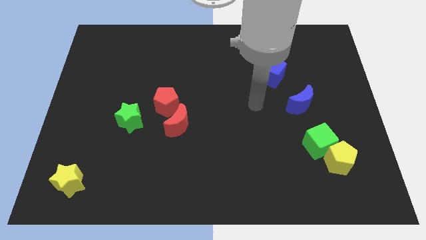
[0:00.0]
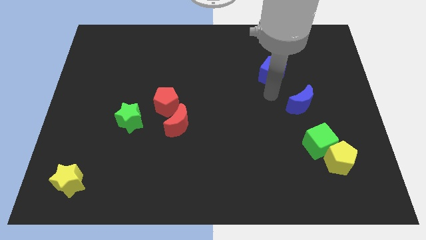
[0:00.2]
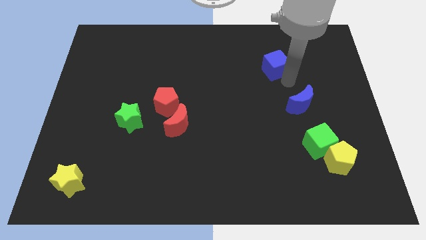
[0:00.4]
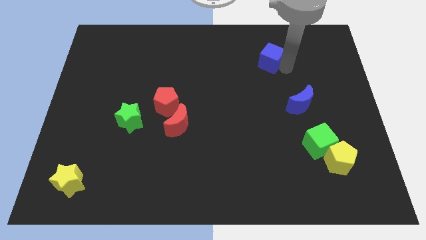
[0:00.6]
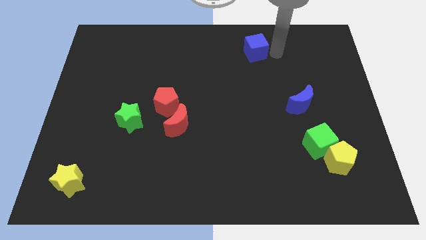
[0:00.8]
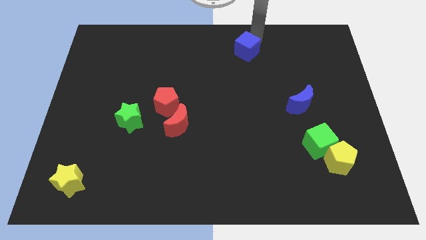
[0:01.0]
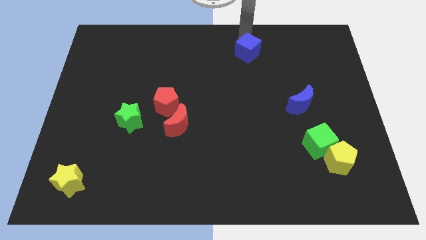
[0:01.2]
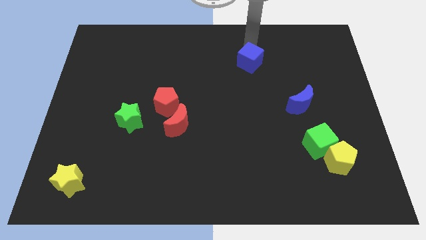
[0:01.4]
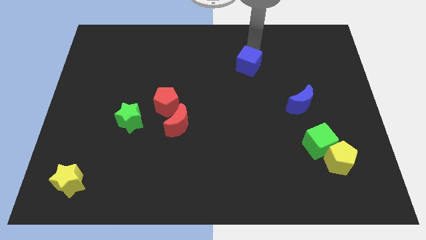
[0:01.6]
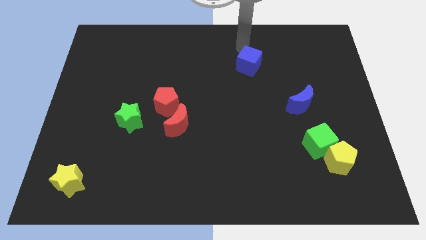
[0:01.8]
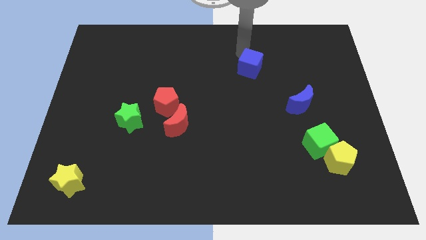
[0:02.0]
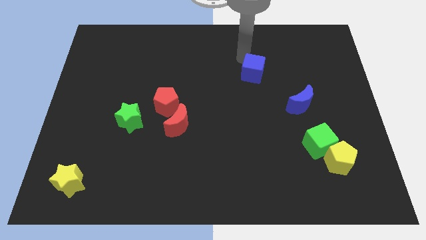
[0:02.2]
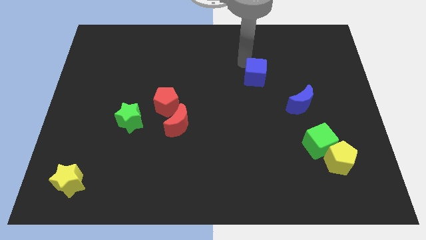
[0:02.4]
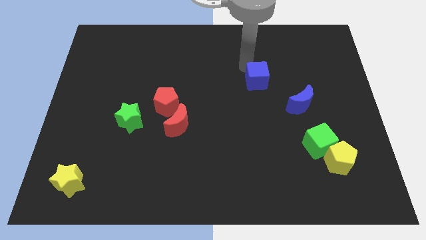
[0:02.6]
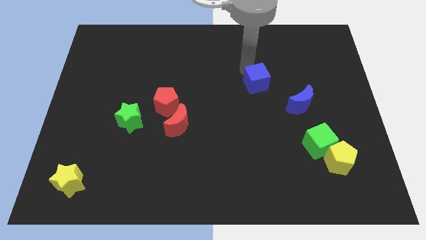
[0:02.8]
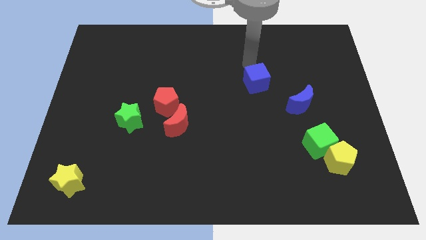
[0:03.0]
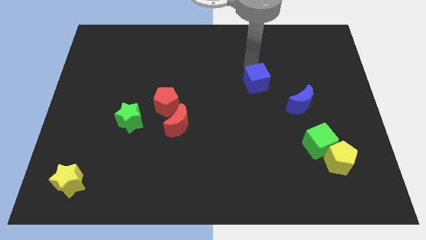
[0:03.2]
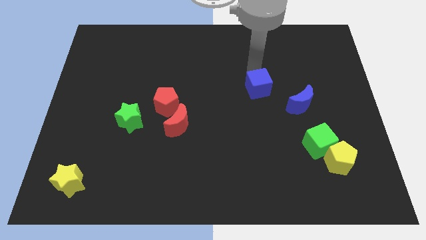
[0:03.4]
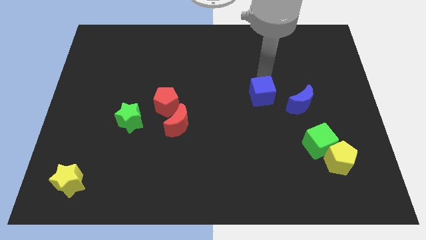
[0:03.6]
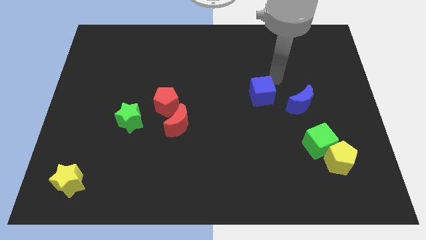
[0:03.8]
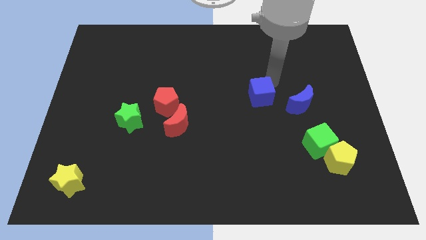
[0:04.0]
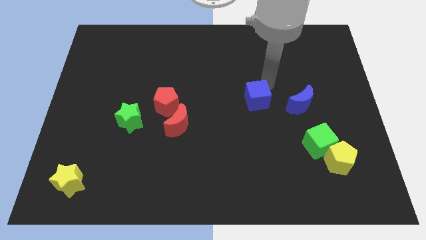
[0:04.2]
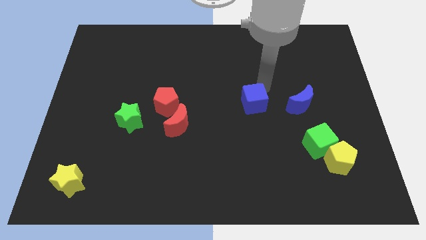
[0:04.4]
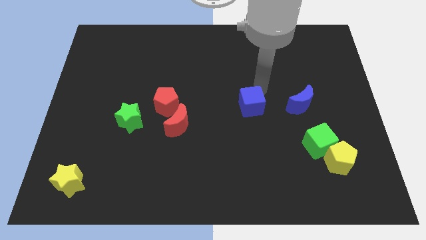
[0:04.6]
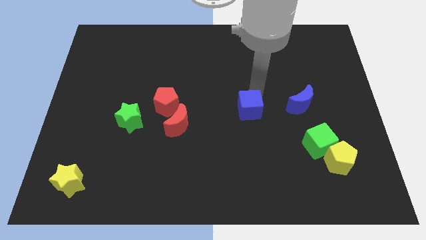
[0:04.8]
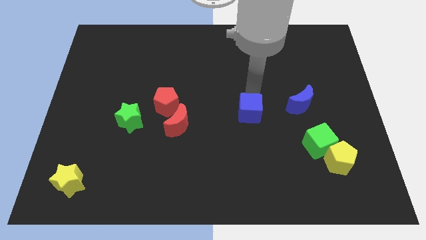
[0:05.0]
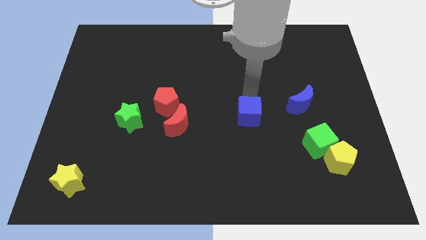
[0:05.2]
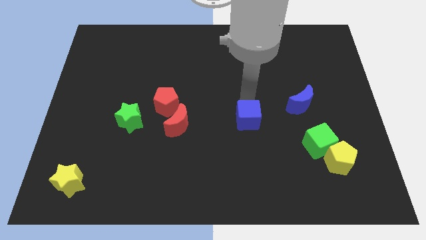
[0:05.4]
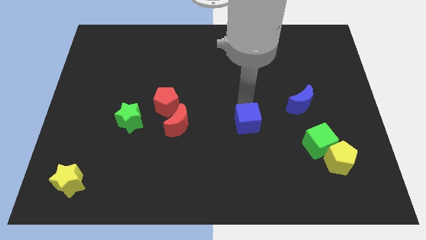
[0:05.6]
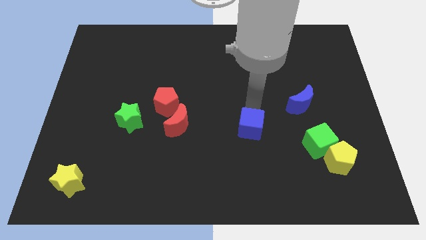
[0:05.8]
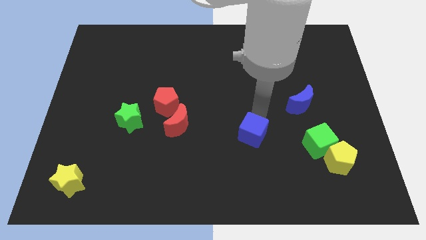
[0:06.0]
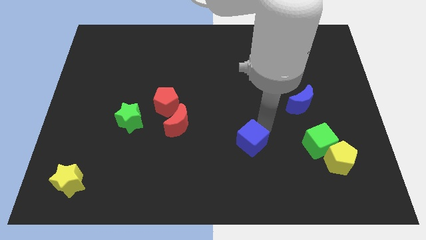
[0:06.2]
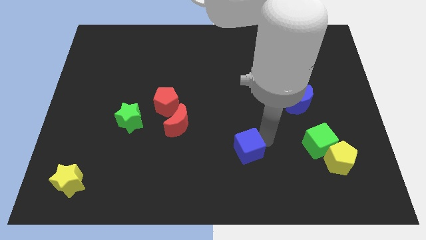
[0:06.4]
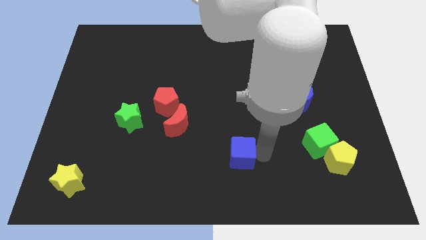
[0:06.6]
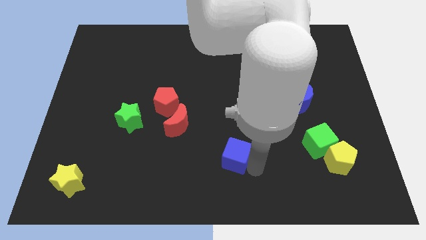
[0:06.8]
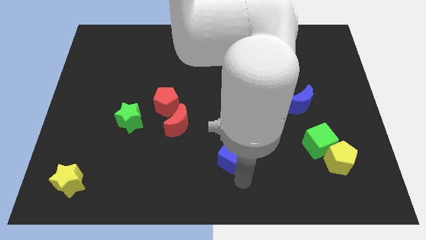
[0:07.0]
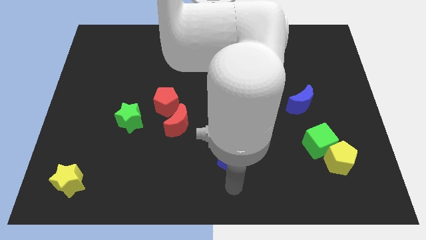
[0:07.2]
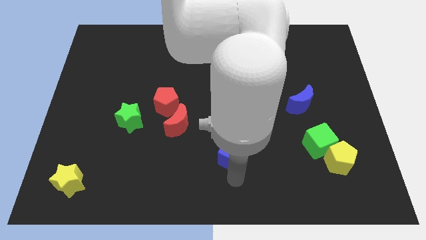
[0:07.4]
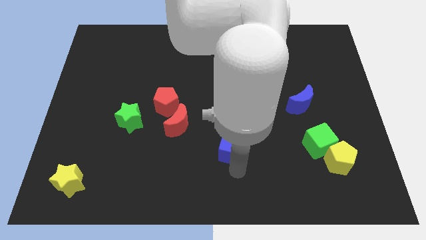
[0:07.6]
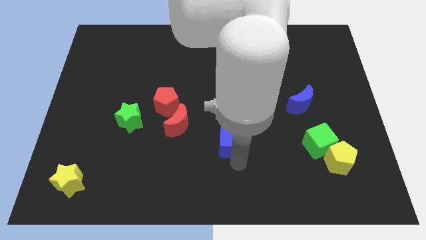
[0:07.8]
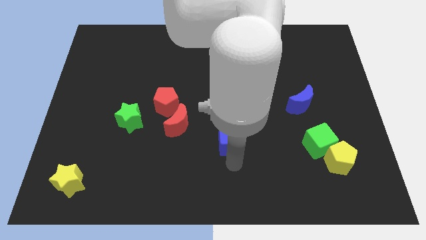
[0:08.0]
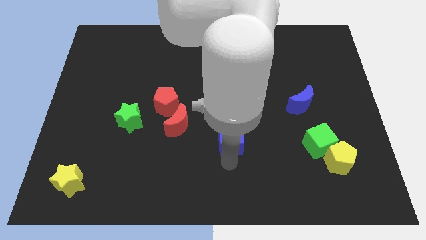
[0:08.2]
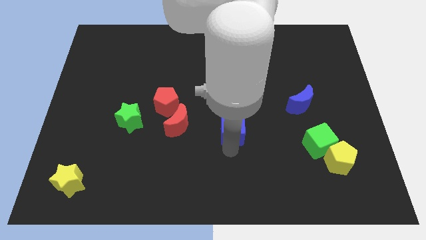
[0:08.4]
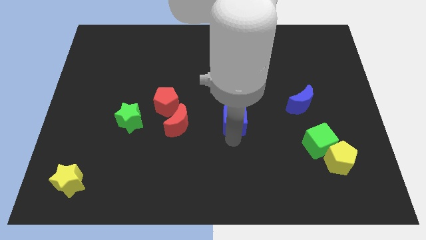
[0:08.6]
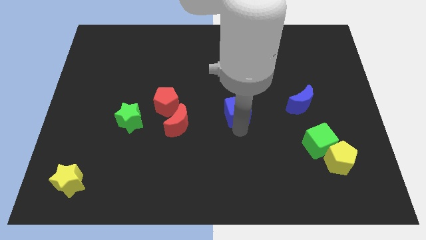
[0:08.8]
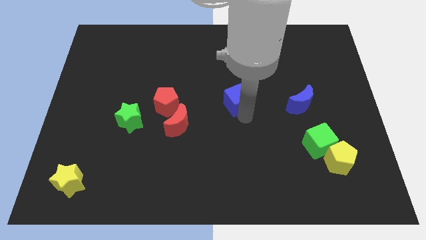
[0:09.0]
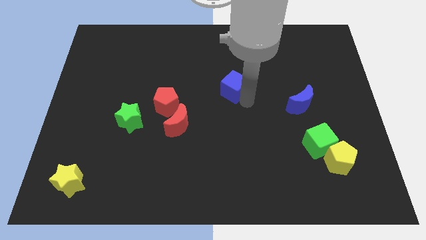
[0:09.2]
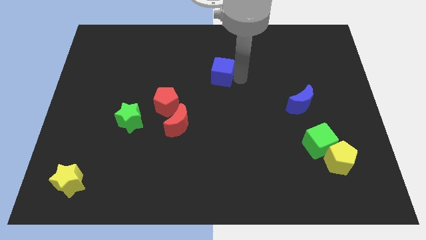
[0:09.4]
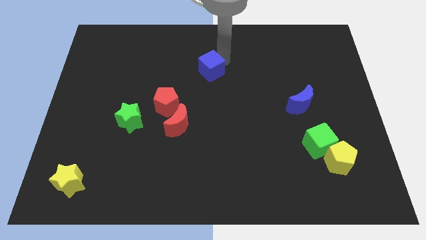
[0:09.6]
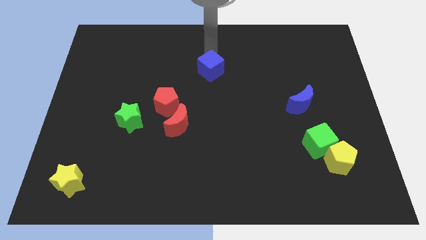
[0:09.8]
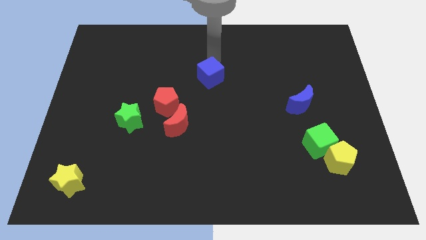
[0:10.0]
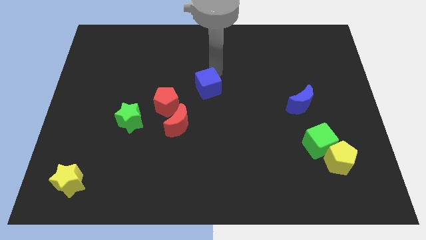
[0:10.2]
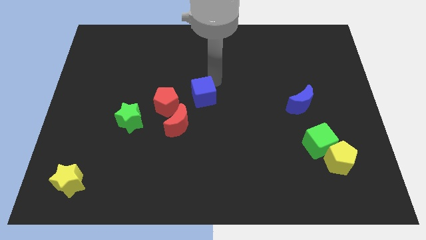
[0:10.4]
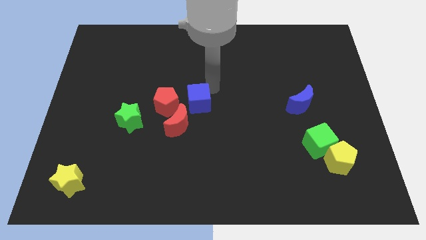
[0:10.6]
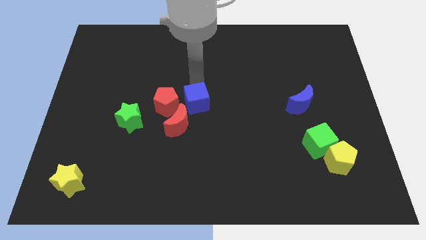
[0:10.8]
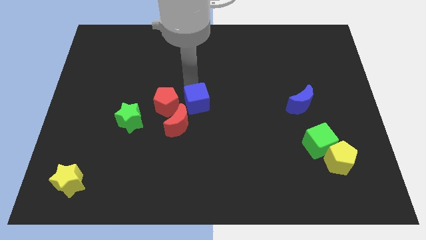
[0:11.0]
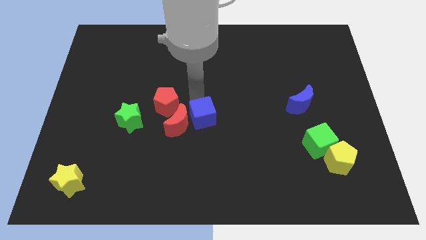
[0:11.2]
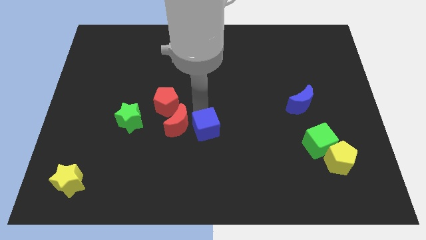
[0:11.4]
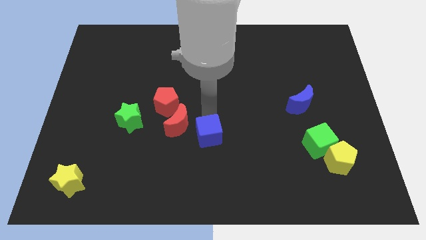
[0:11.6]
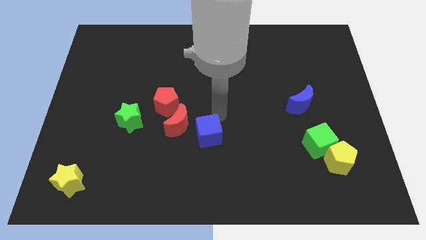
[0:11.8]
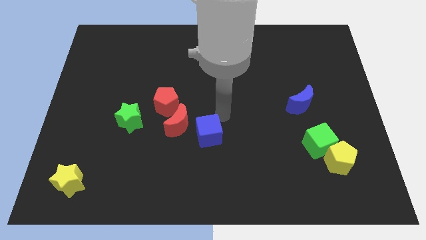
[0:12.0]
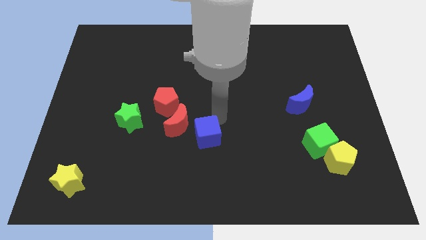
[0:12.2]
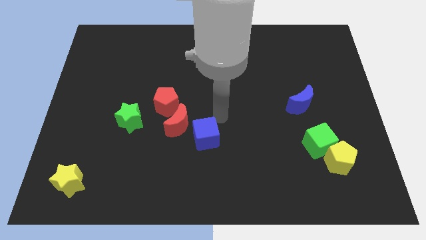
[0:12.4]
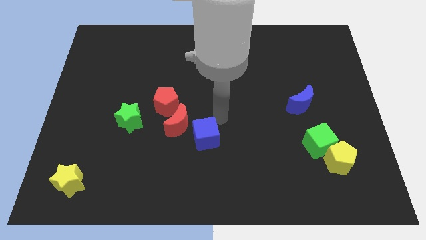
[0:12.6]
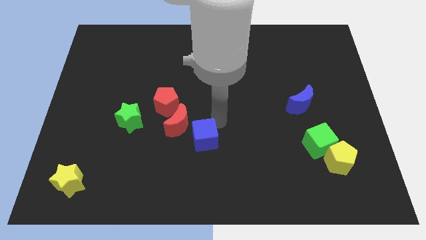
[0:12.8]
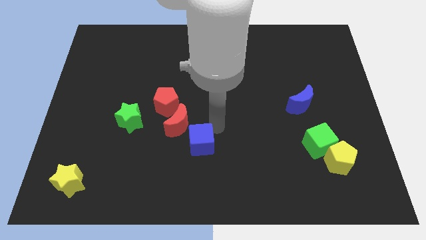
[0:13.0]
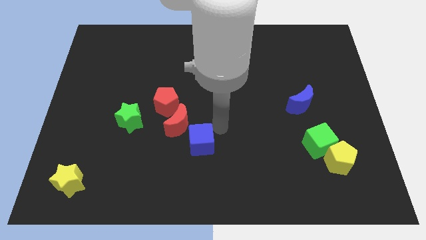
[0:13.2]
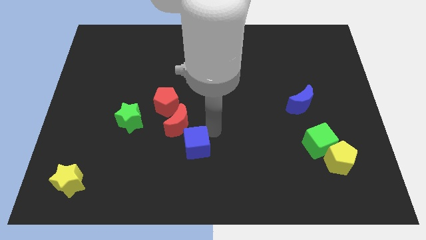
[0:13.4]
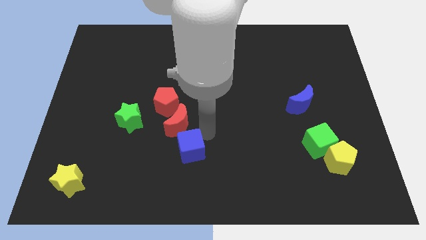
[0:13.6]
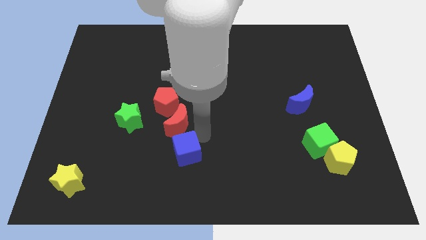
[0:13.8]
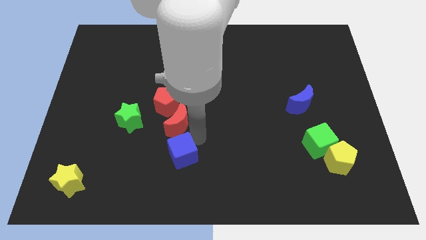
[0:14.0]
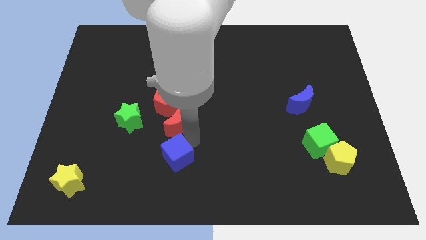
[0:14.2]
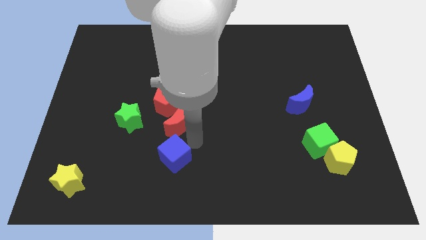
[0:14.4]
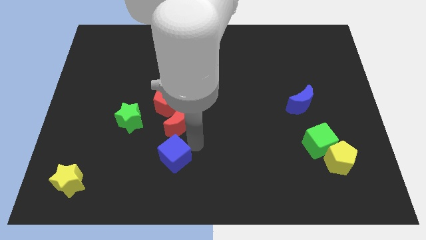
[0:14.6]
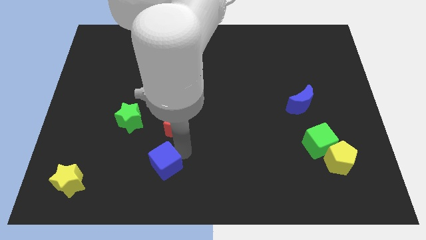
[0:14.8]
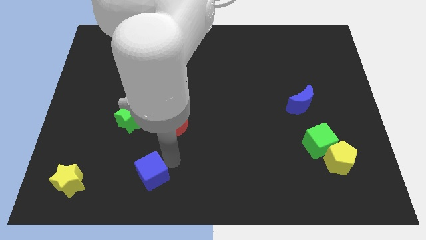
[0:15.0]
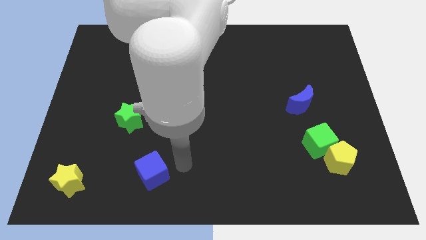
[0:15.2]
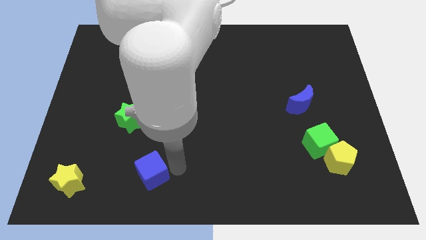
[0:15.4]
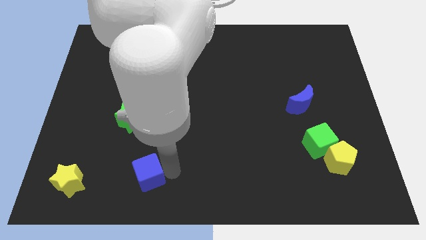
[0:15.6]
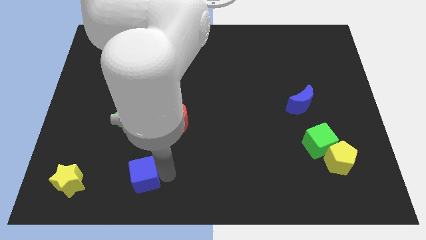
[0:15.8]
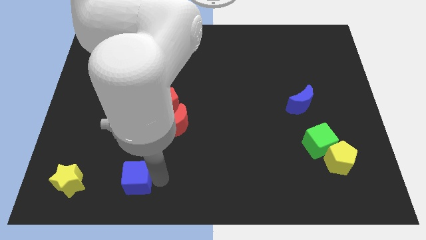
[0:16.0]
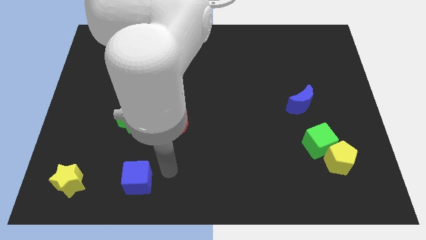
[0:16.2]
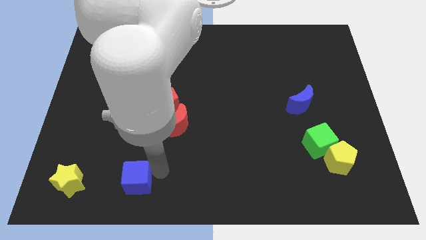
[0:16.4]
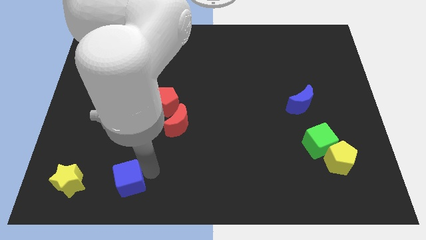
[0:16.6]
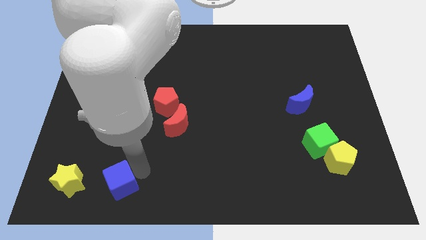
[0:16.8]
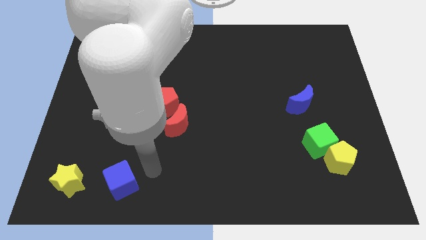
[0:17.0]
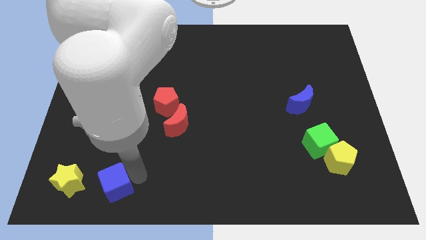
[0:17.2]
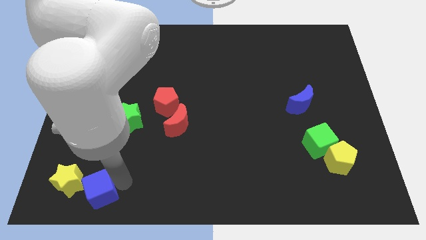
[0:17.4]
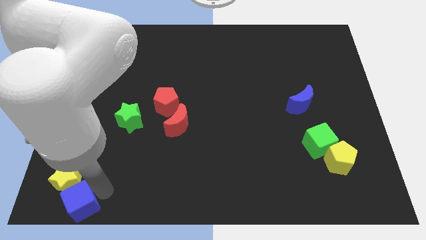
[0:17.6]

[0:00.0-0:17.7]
slide the blue cube to the bottom left corner
